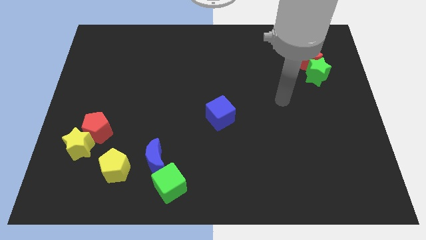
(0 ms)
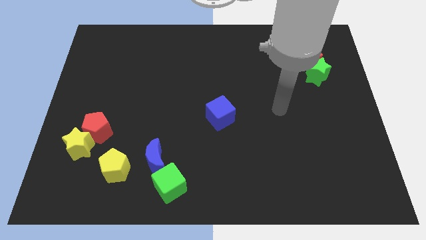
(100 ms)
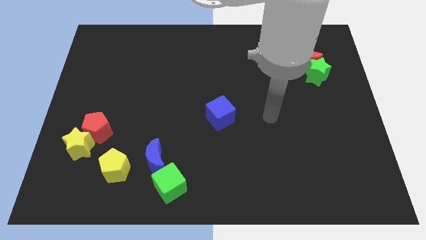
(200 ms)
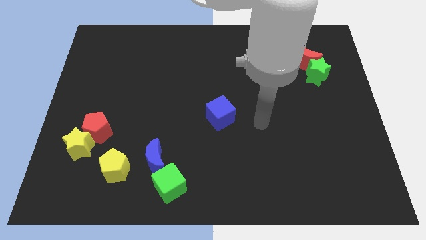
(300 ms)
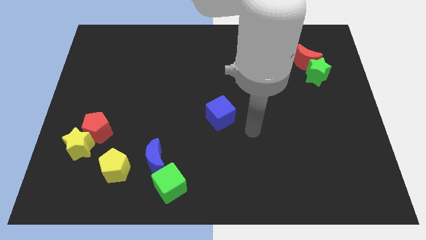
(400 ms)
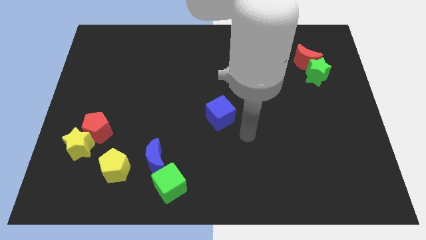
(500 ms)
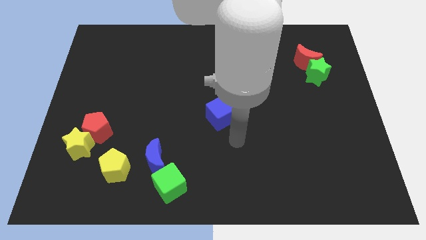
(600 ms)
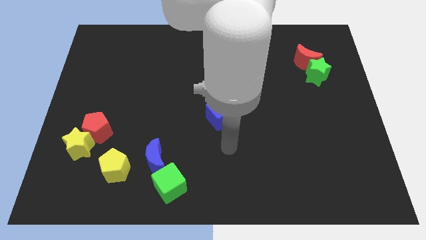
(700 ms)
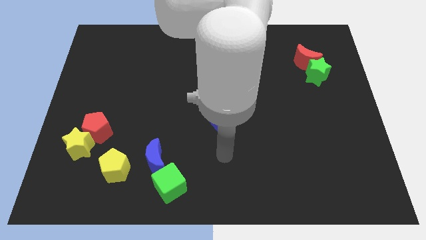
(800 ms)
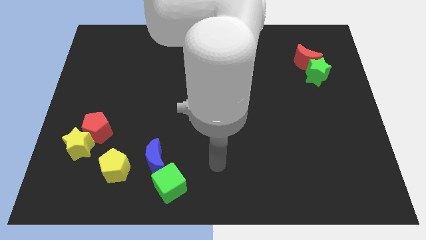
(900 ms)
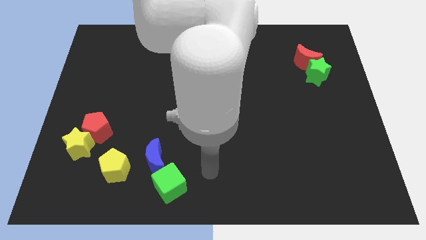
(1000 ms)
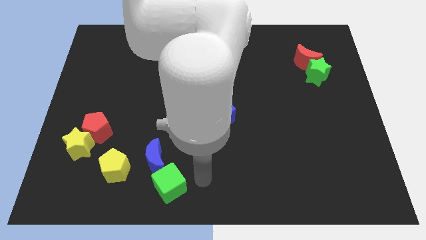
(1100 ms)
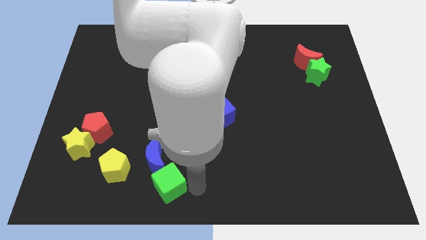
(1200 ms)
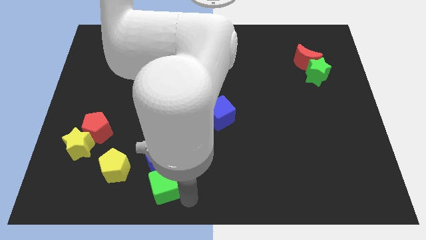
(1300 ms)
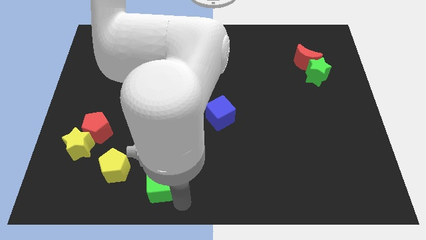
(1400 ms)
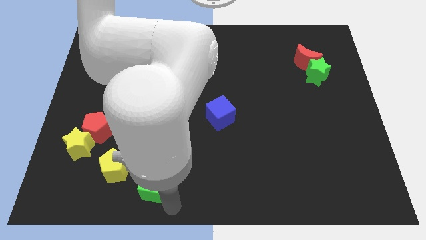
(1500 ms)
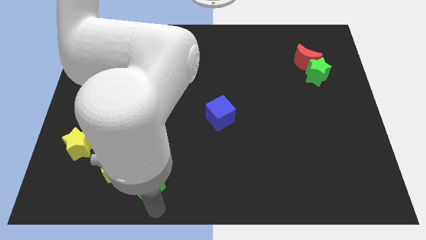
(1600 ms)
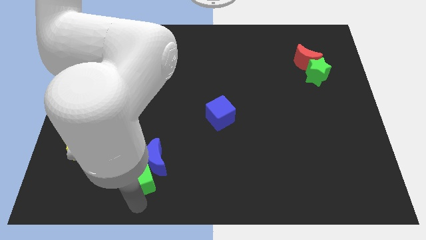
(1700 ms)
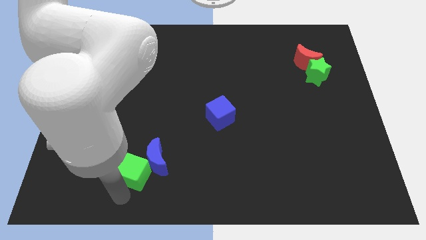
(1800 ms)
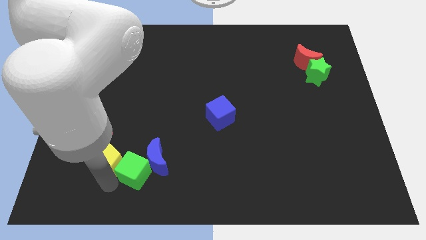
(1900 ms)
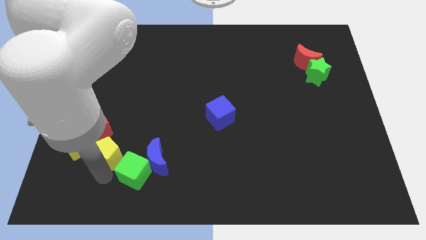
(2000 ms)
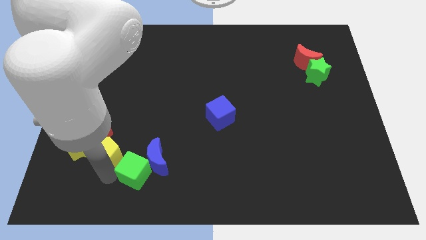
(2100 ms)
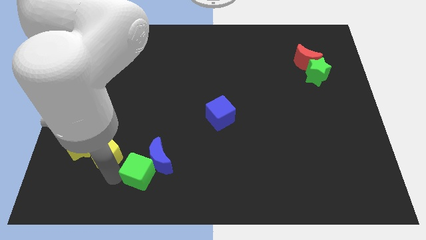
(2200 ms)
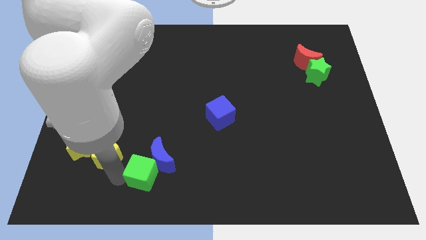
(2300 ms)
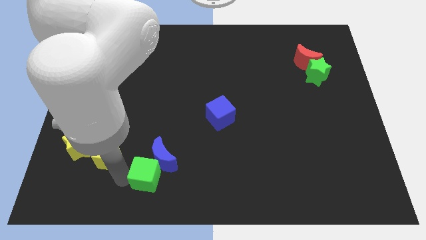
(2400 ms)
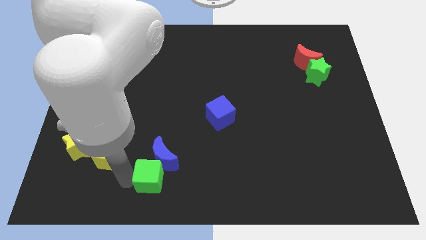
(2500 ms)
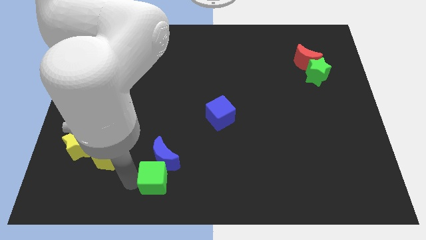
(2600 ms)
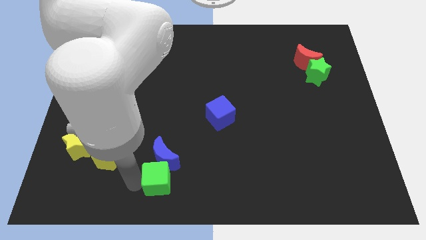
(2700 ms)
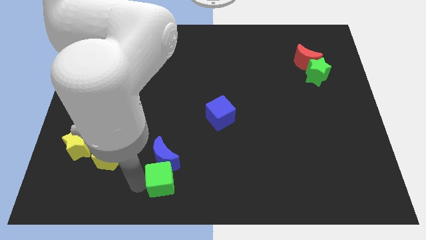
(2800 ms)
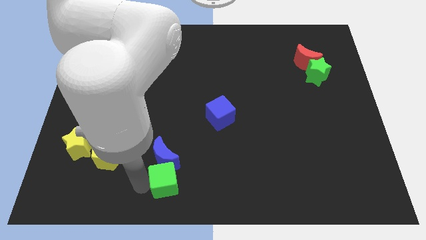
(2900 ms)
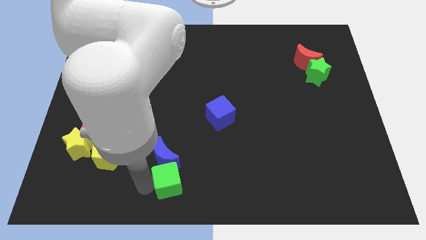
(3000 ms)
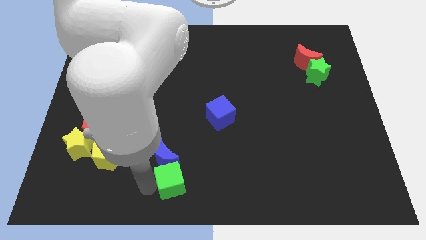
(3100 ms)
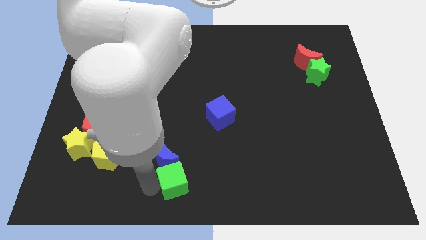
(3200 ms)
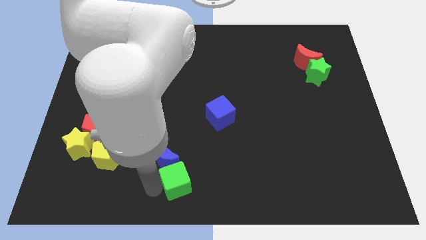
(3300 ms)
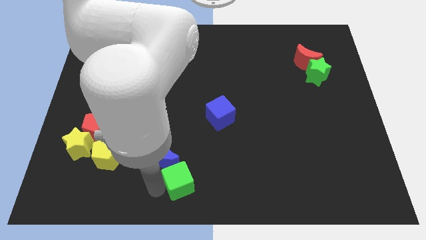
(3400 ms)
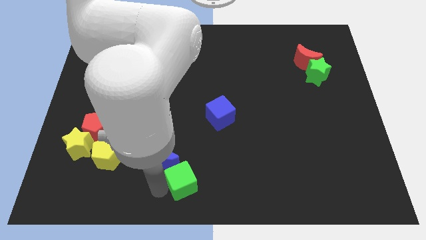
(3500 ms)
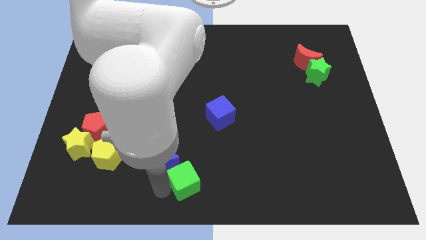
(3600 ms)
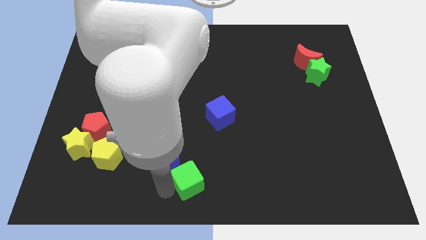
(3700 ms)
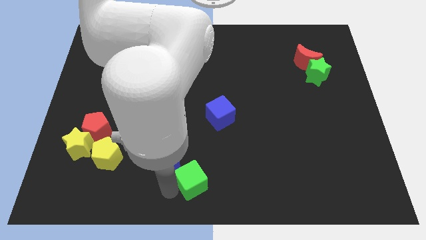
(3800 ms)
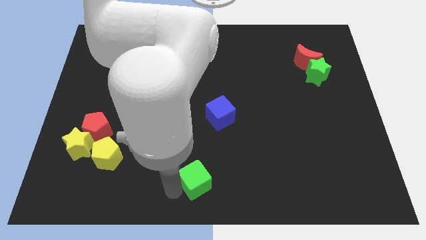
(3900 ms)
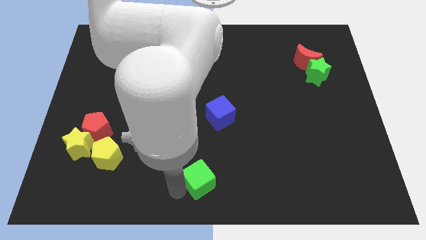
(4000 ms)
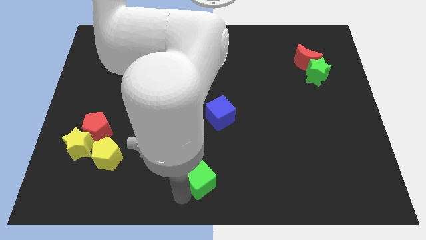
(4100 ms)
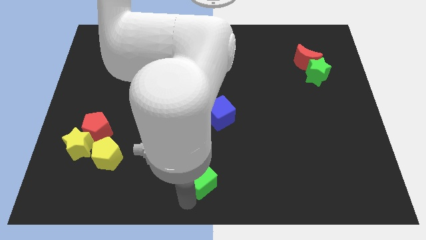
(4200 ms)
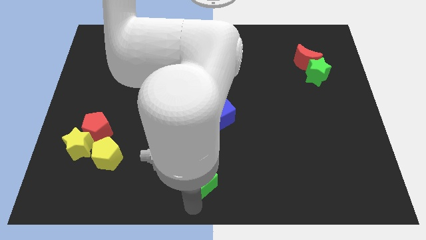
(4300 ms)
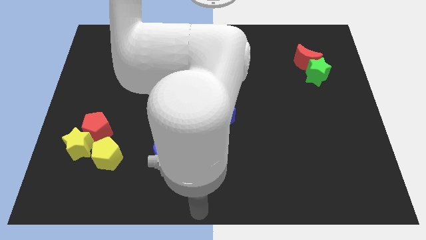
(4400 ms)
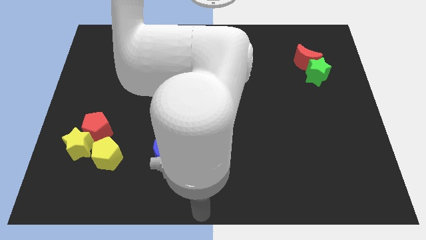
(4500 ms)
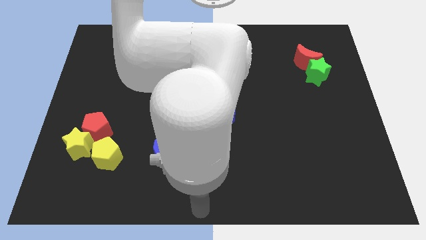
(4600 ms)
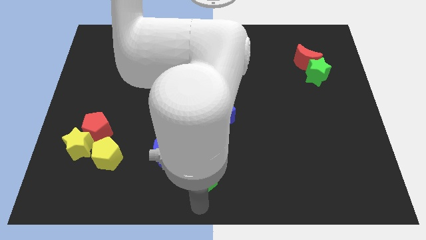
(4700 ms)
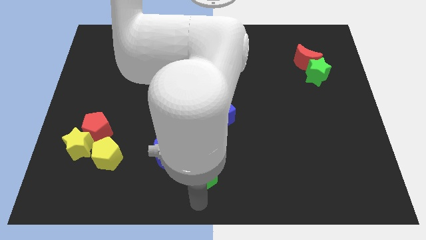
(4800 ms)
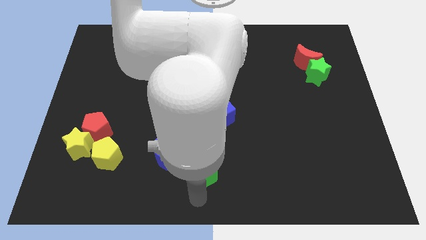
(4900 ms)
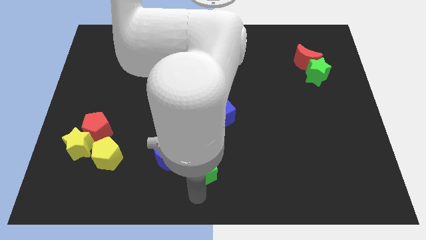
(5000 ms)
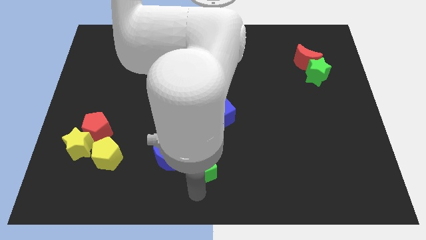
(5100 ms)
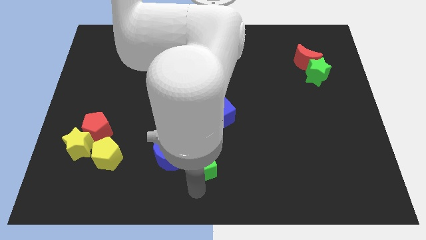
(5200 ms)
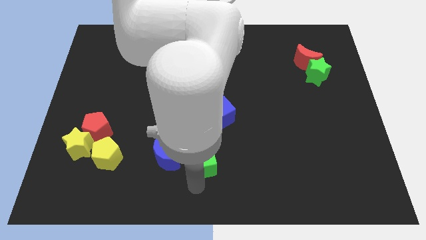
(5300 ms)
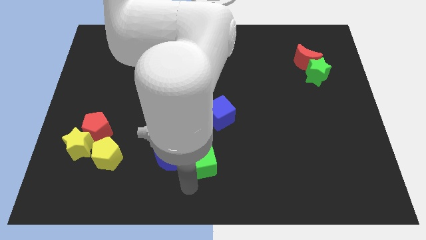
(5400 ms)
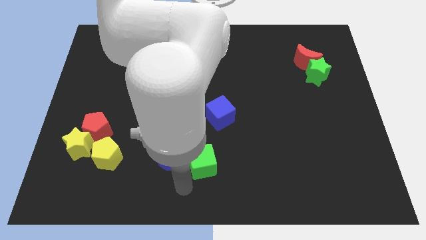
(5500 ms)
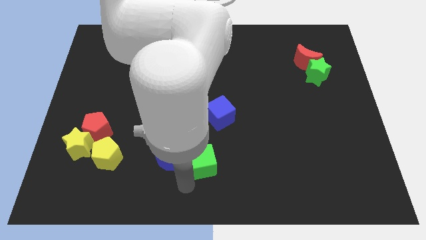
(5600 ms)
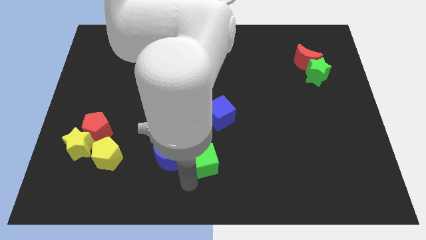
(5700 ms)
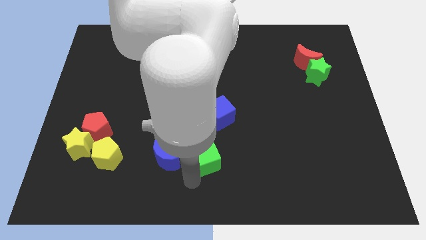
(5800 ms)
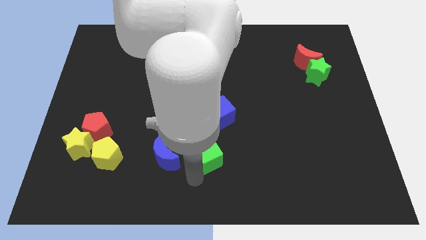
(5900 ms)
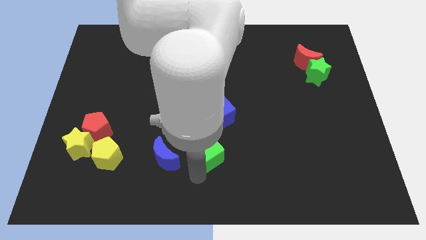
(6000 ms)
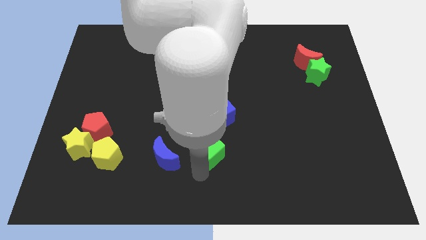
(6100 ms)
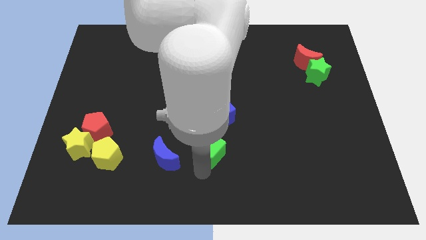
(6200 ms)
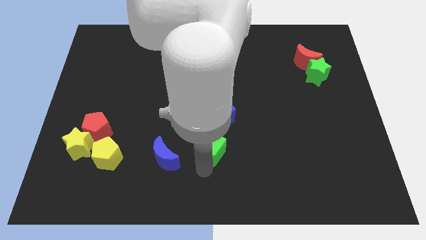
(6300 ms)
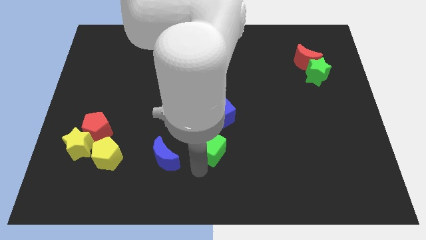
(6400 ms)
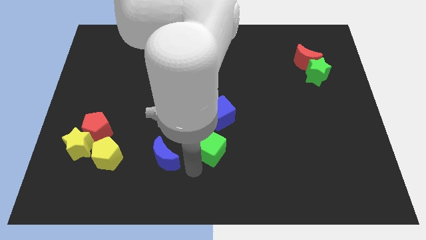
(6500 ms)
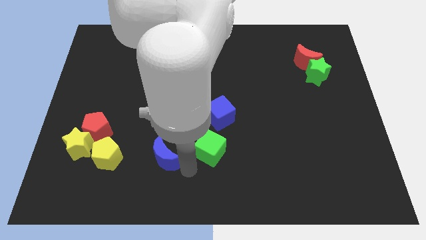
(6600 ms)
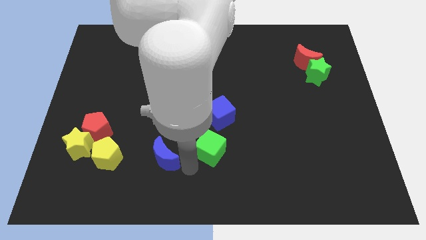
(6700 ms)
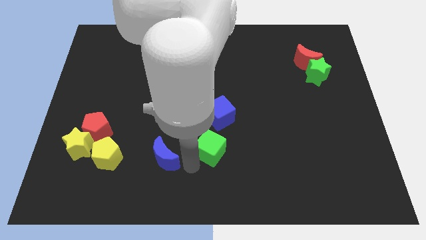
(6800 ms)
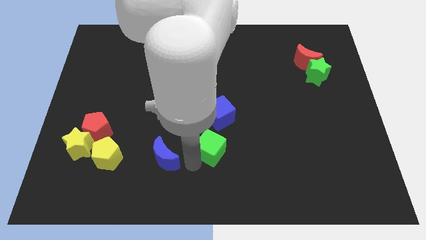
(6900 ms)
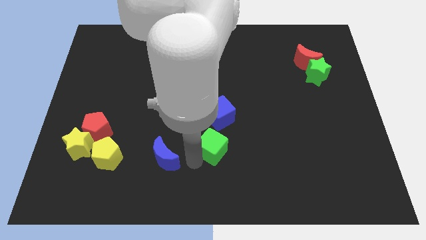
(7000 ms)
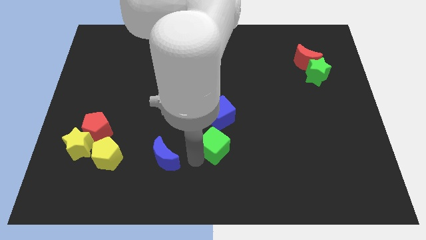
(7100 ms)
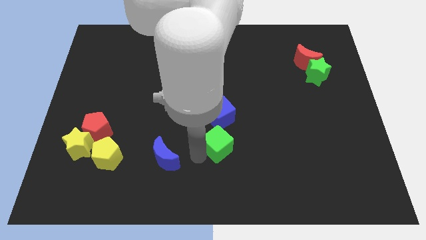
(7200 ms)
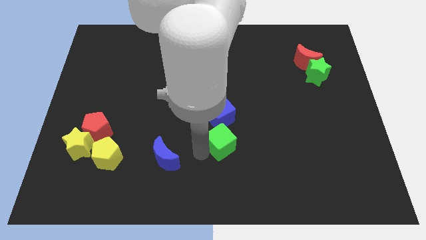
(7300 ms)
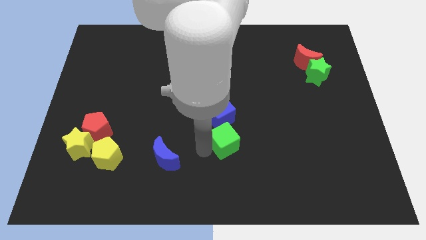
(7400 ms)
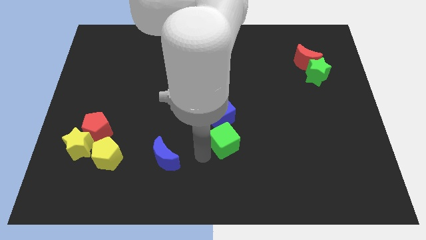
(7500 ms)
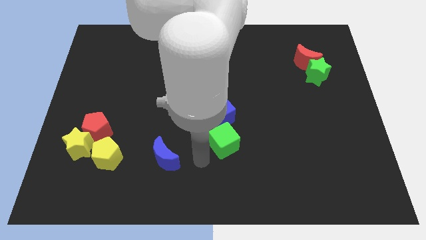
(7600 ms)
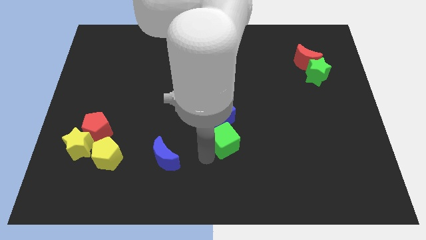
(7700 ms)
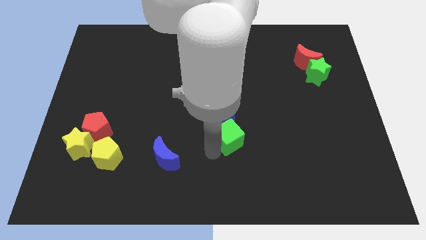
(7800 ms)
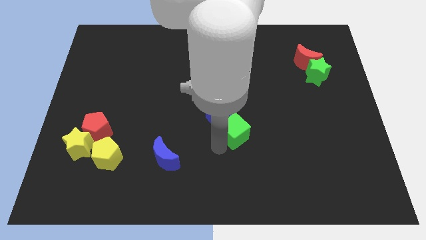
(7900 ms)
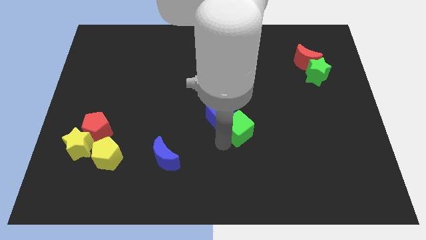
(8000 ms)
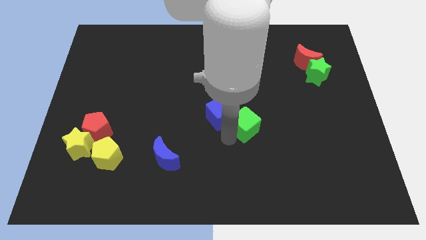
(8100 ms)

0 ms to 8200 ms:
push the green cube diagonally up and right
